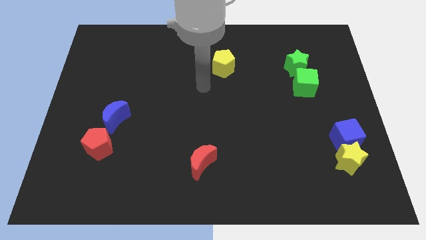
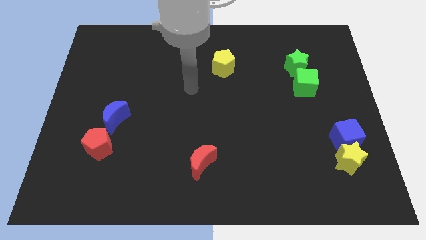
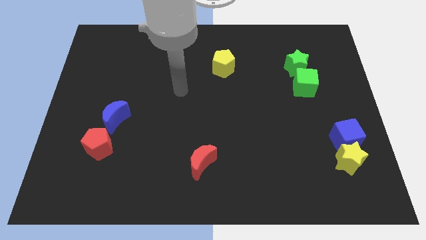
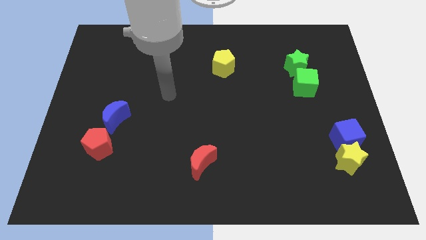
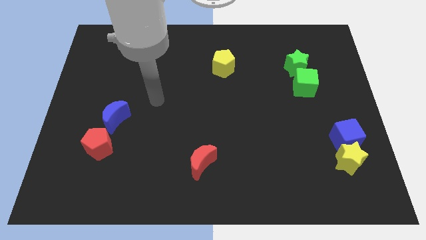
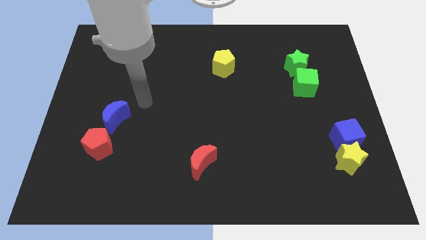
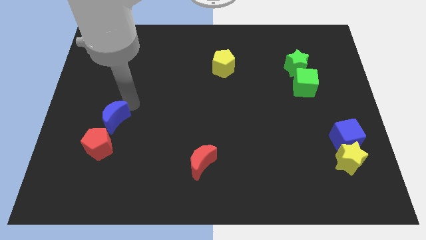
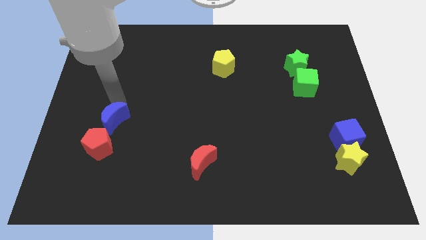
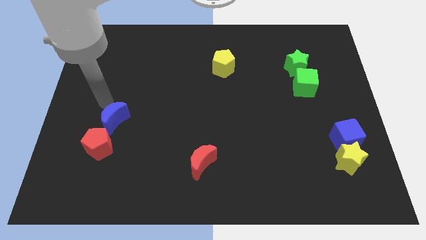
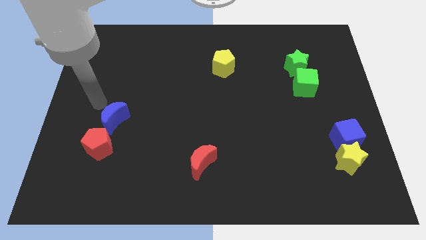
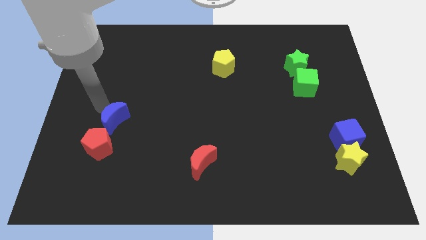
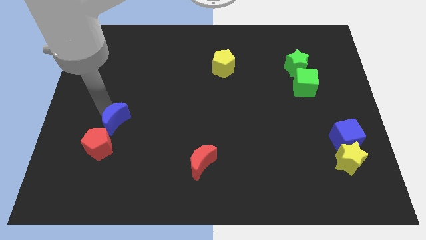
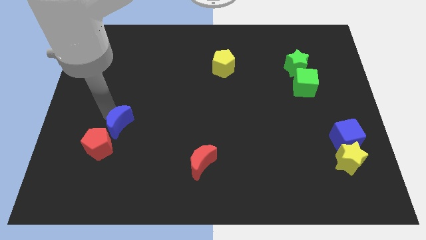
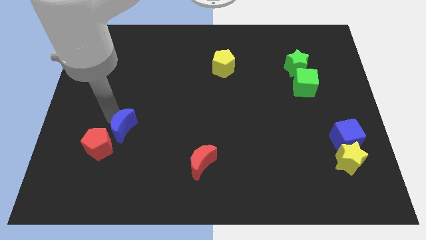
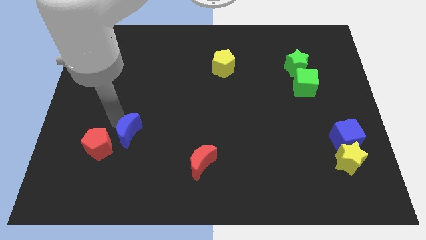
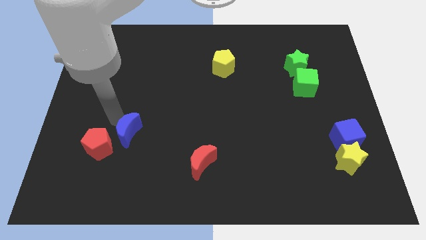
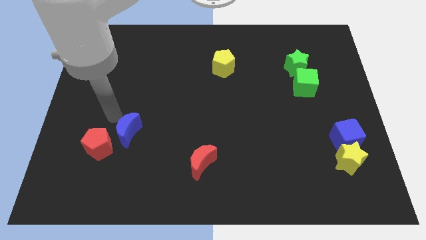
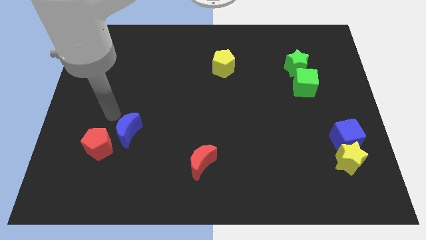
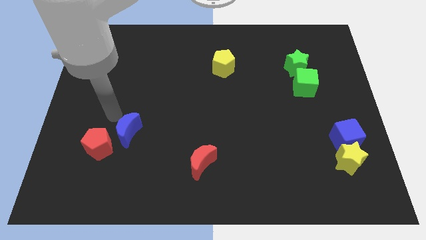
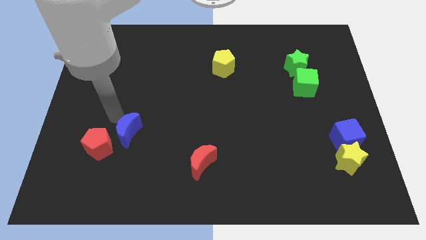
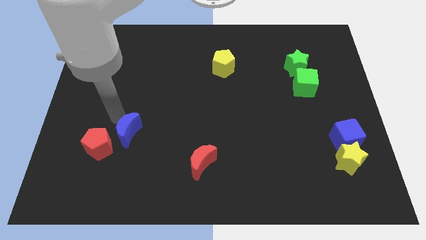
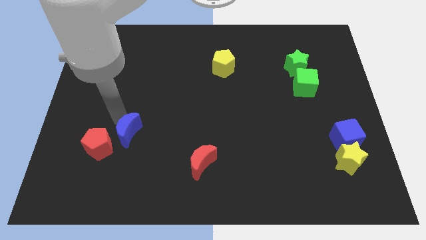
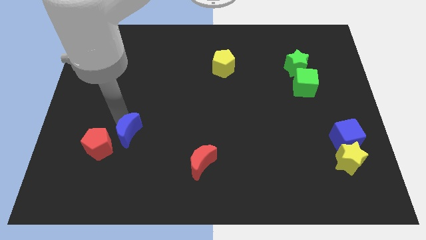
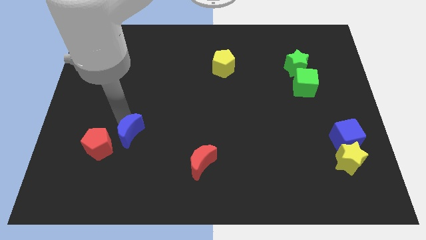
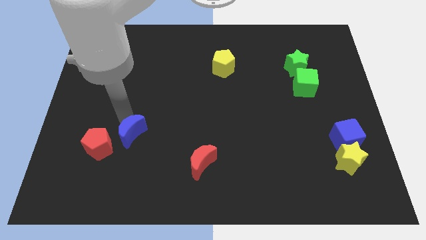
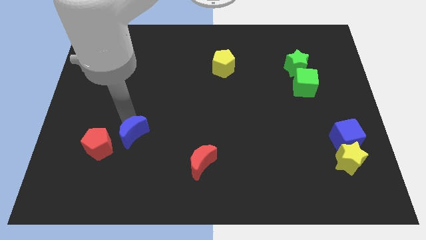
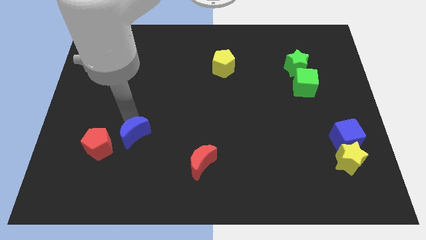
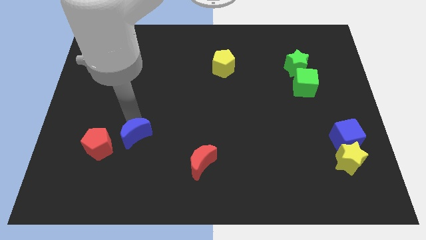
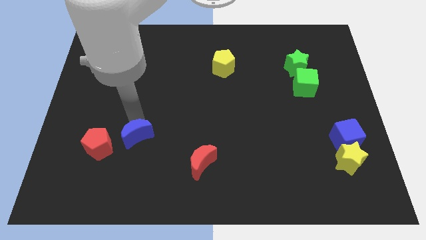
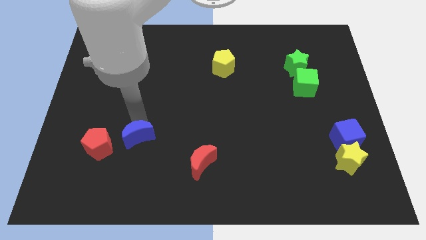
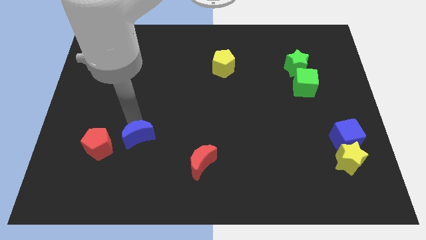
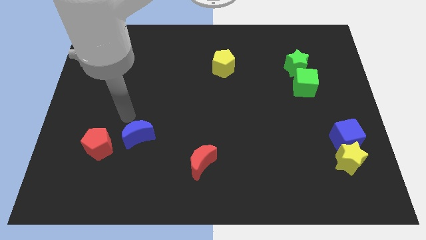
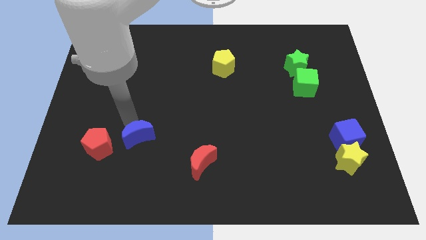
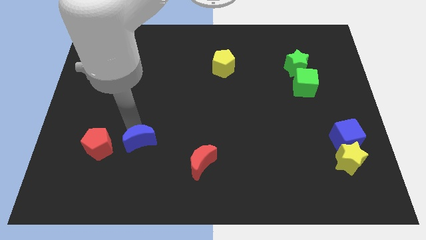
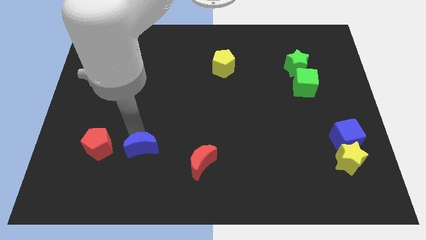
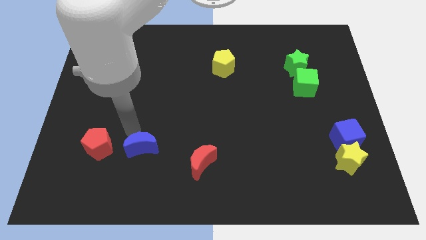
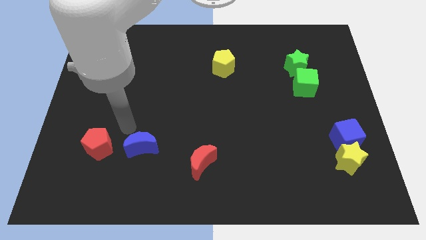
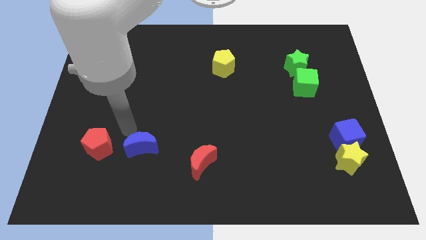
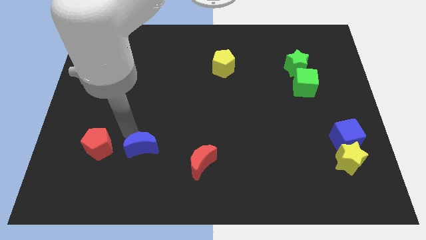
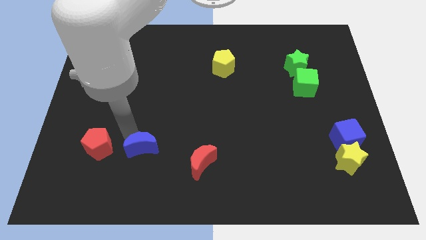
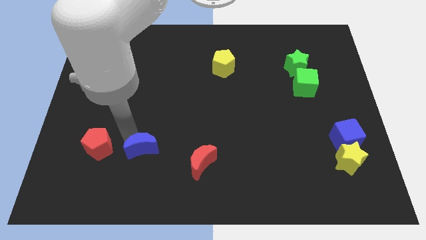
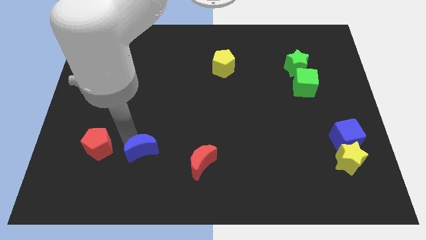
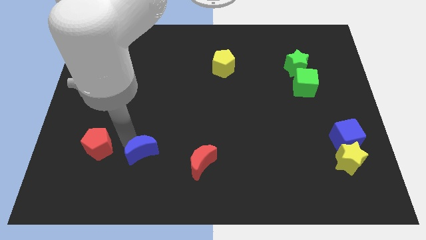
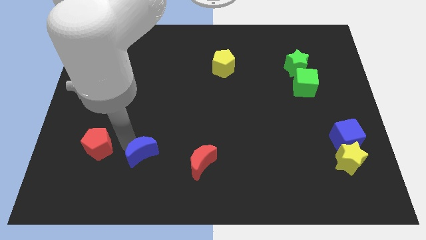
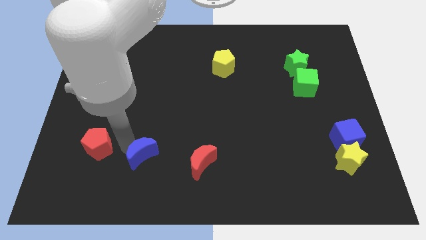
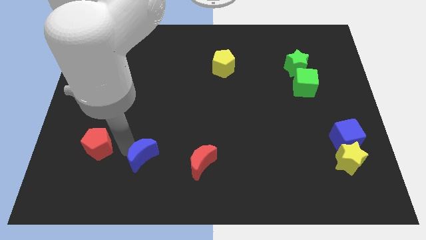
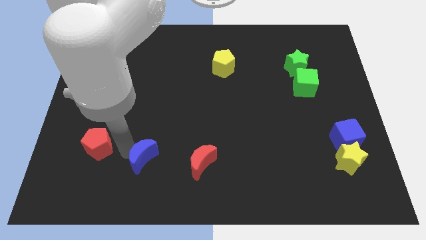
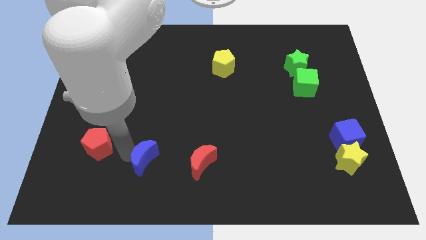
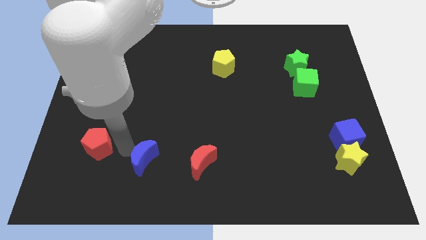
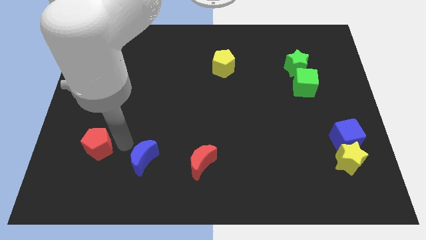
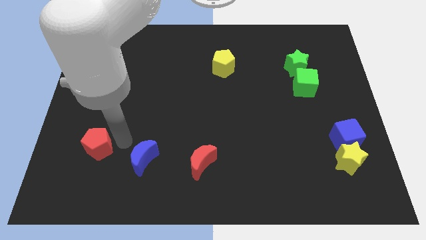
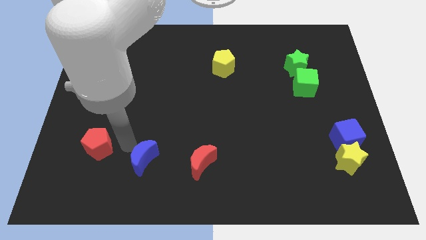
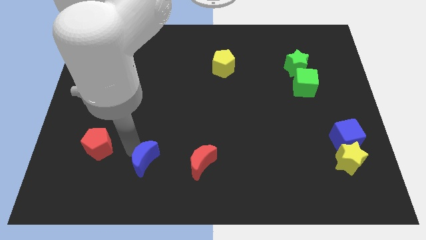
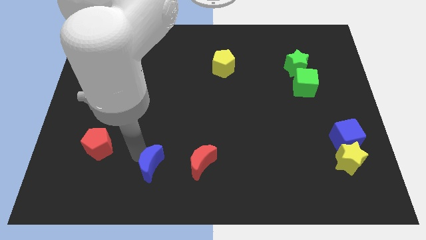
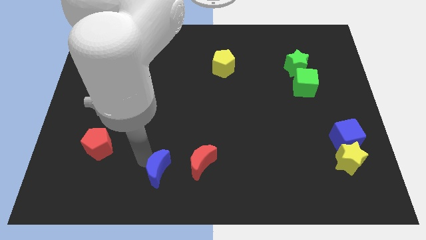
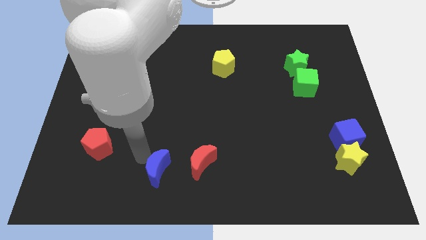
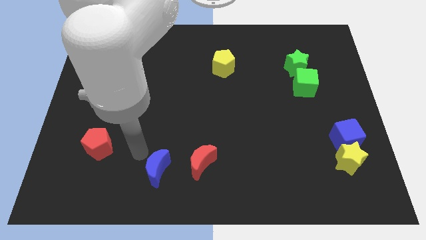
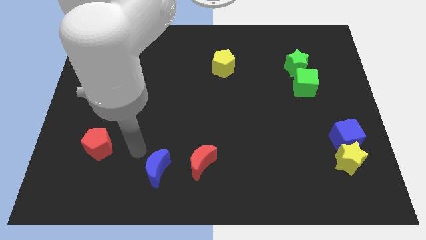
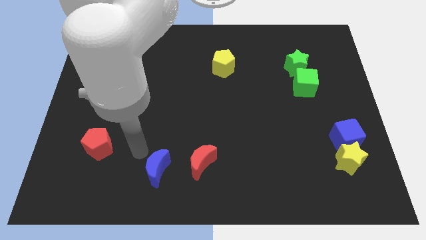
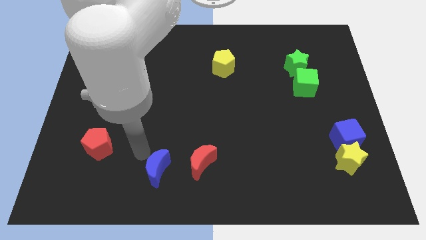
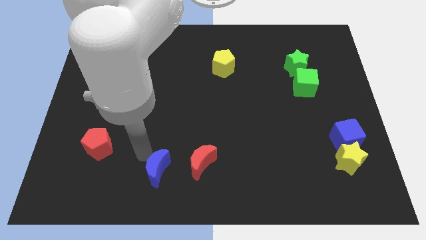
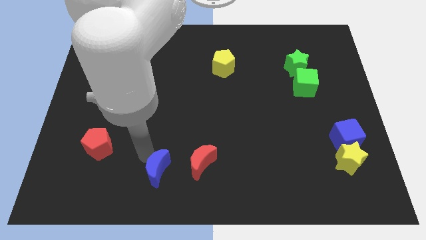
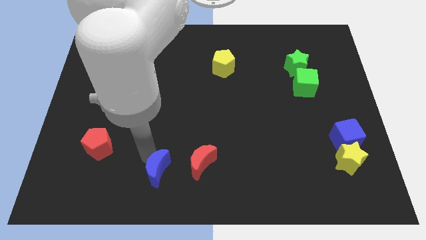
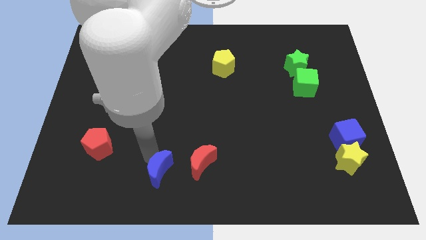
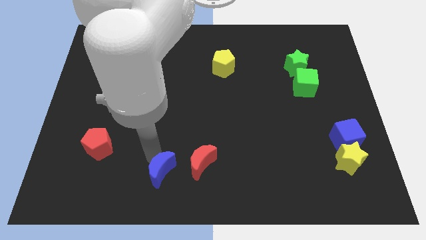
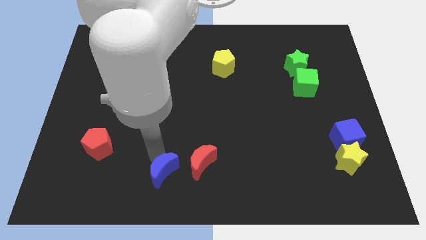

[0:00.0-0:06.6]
slide the blue moon to the bottom side

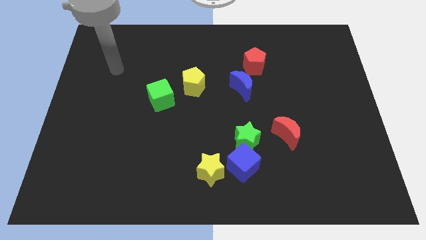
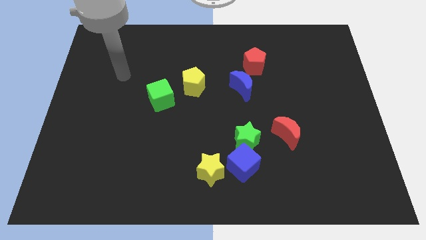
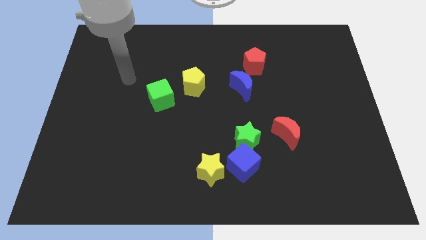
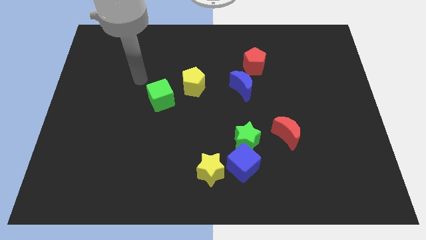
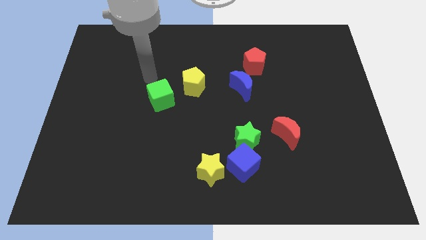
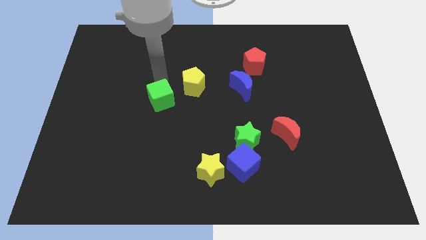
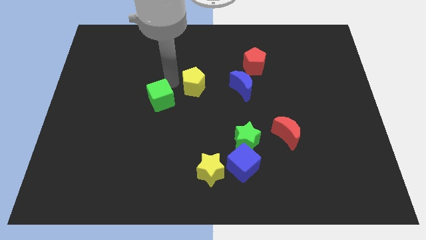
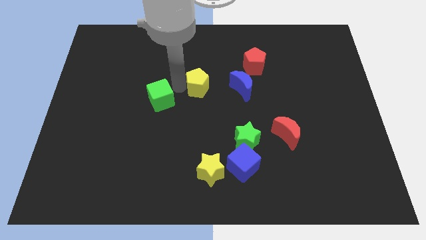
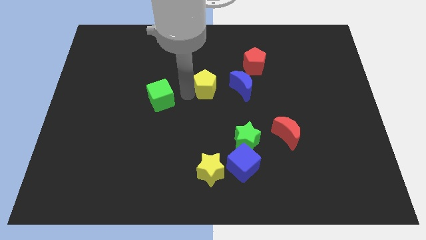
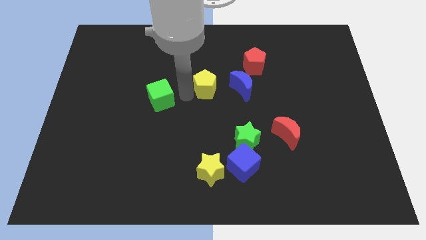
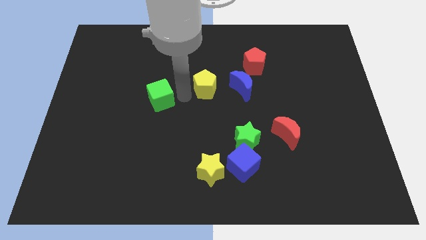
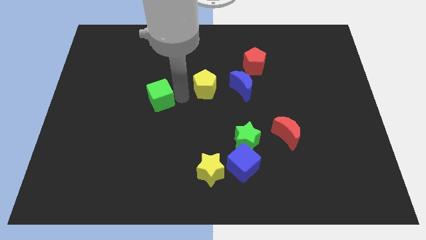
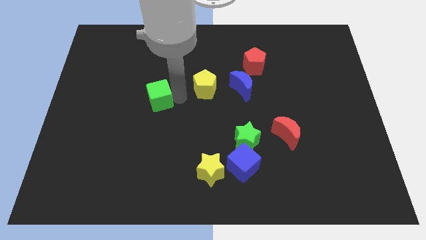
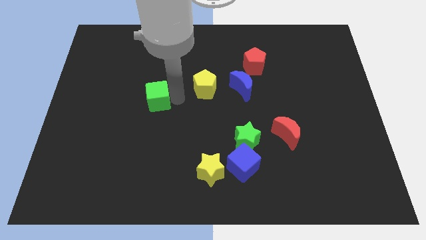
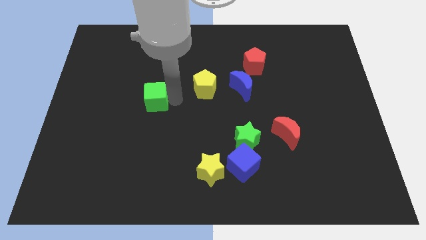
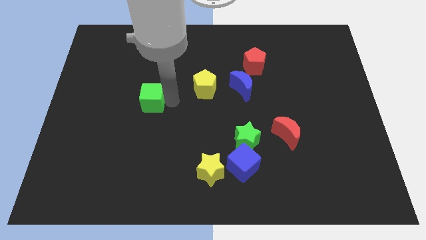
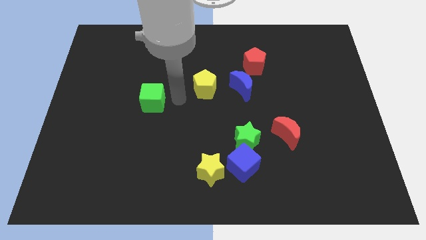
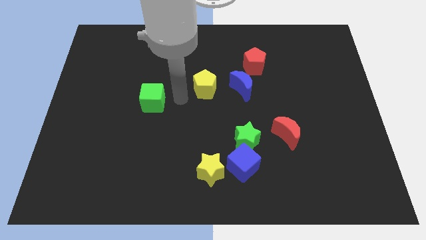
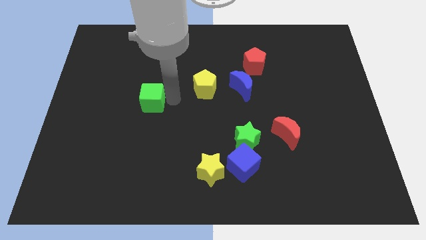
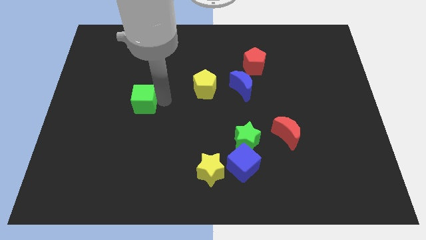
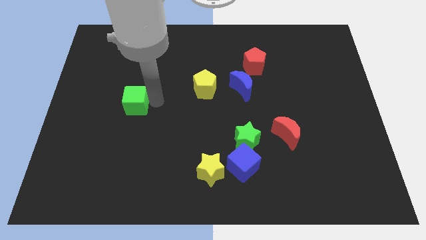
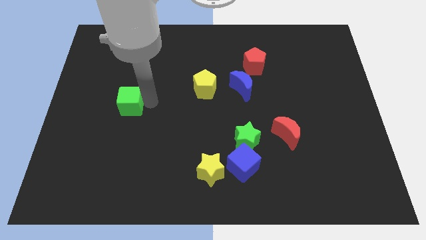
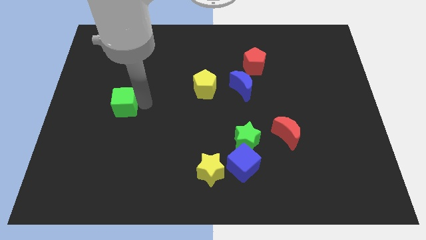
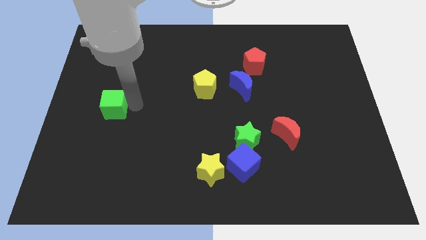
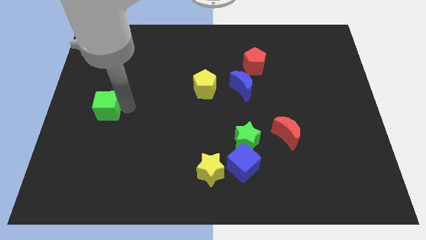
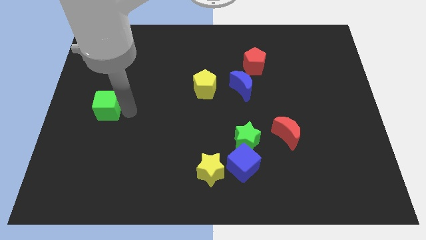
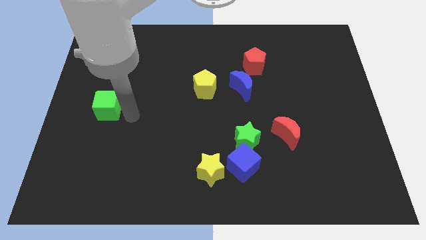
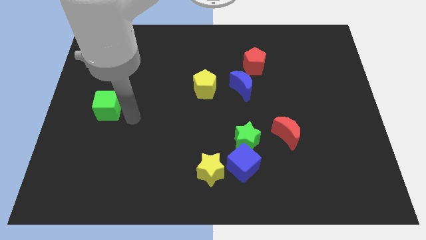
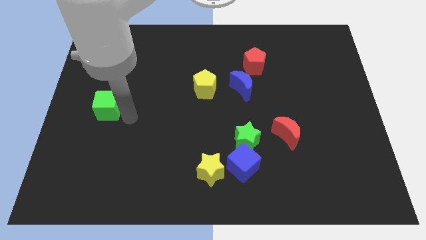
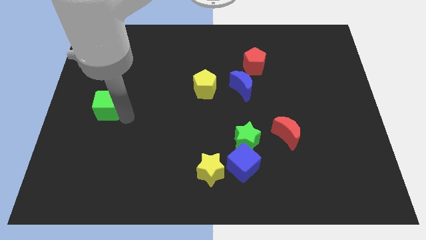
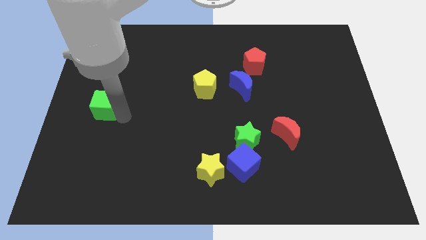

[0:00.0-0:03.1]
slide the green cube to the left side of the board
